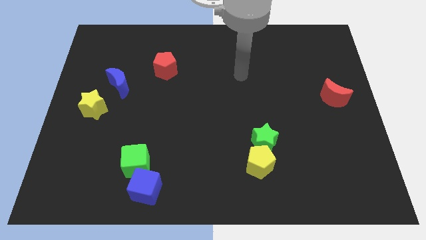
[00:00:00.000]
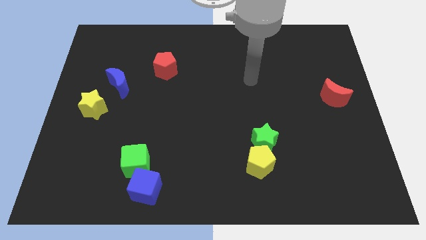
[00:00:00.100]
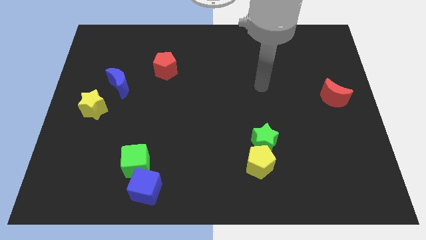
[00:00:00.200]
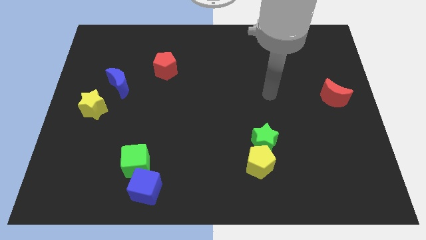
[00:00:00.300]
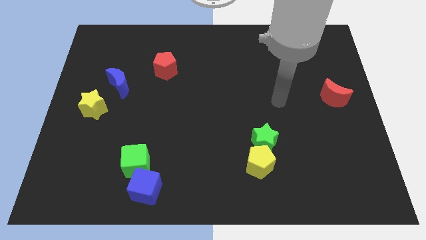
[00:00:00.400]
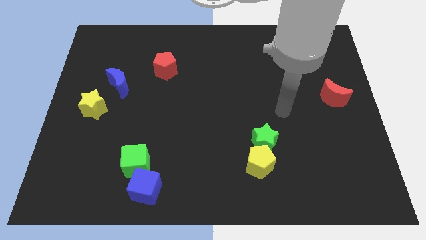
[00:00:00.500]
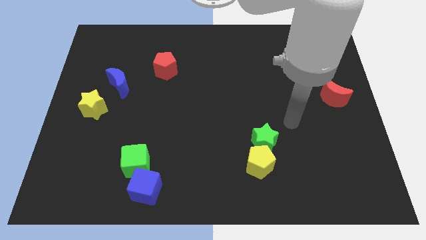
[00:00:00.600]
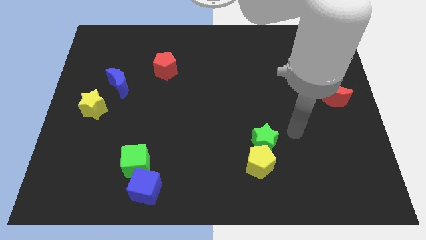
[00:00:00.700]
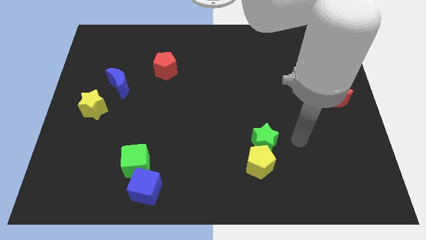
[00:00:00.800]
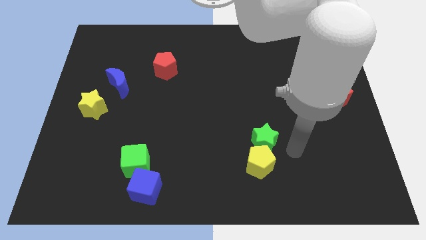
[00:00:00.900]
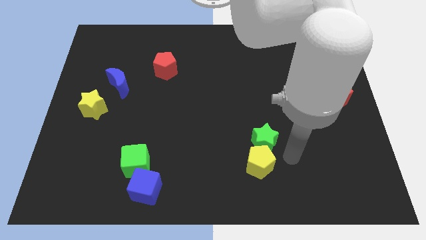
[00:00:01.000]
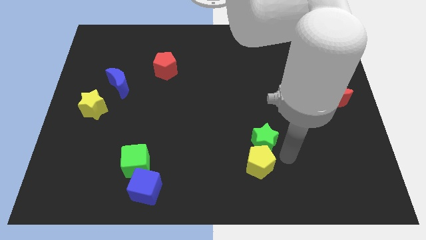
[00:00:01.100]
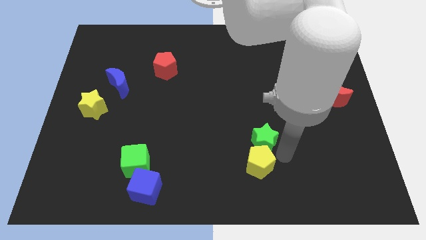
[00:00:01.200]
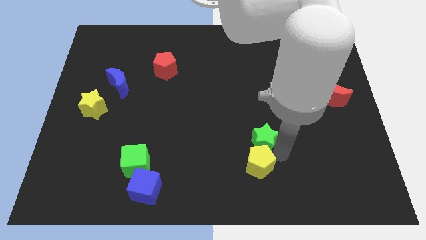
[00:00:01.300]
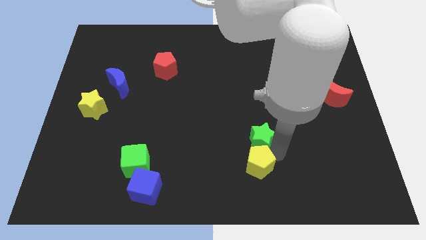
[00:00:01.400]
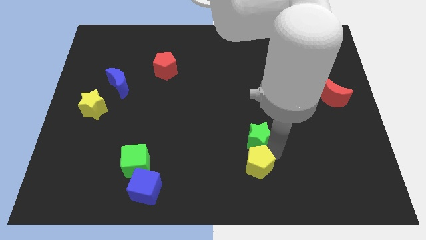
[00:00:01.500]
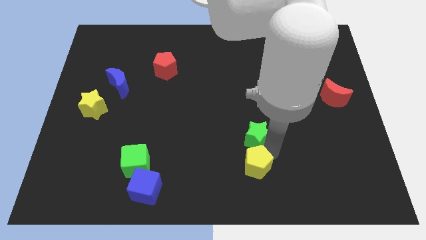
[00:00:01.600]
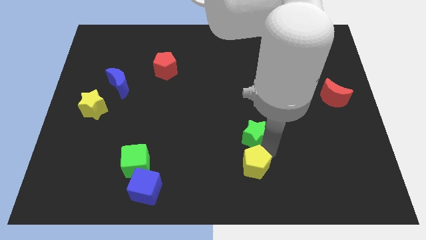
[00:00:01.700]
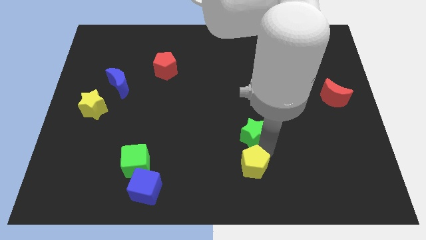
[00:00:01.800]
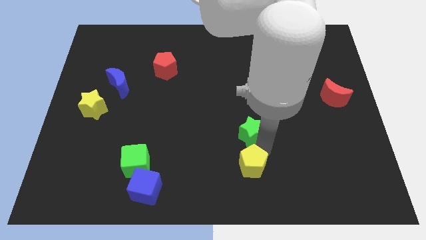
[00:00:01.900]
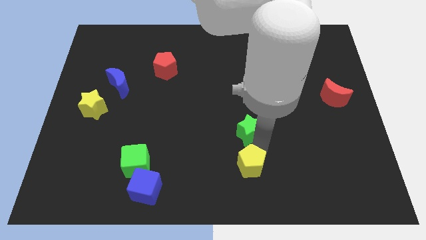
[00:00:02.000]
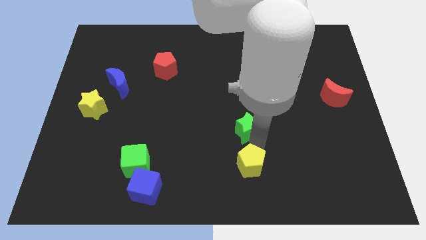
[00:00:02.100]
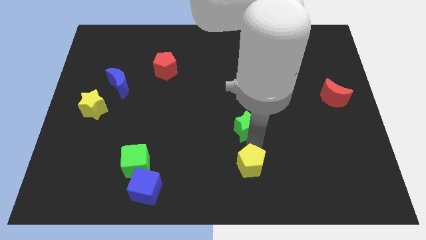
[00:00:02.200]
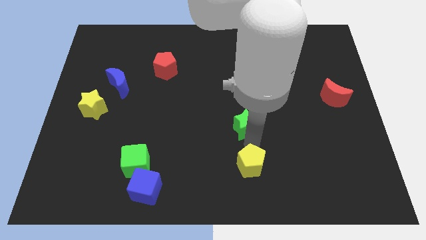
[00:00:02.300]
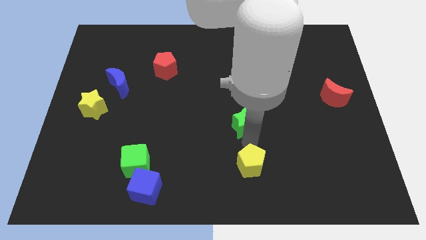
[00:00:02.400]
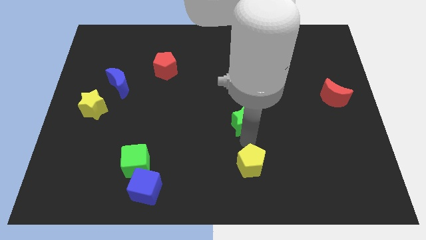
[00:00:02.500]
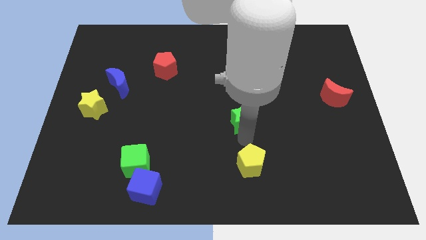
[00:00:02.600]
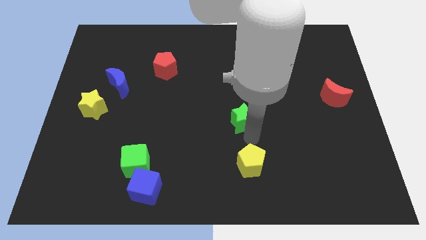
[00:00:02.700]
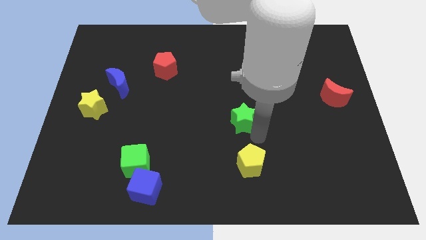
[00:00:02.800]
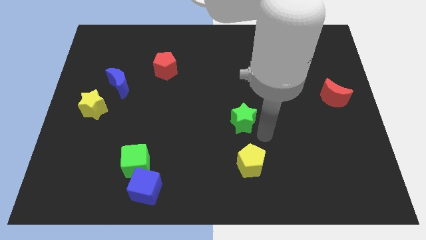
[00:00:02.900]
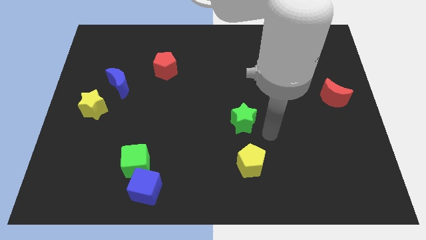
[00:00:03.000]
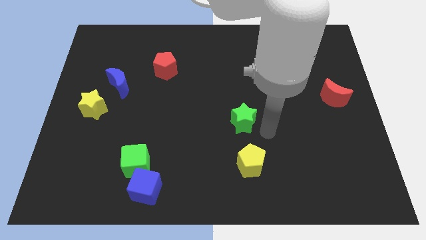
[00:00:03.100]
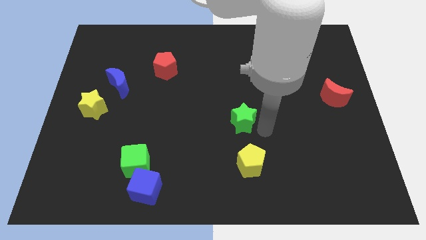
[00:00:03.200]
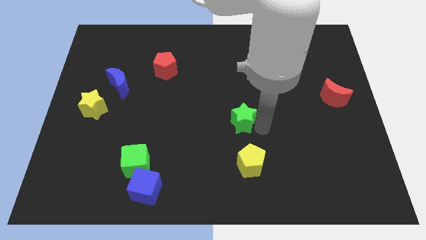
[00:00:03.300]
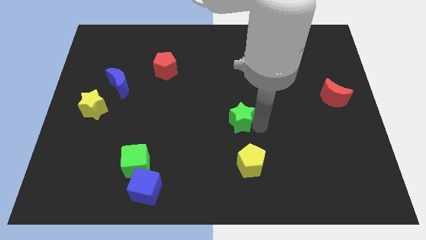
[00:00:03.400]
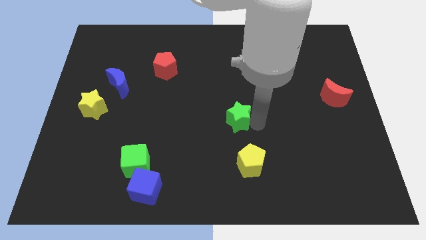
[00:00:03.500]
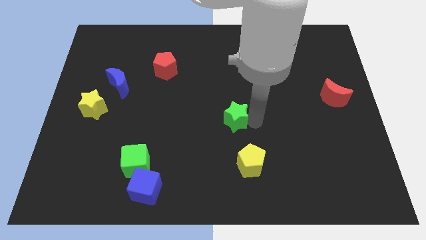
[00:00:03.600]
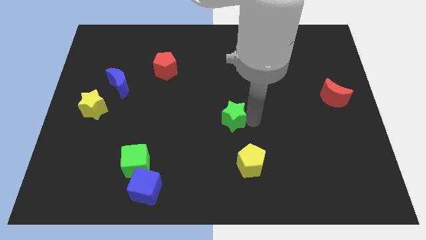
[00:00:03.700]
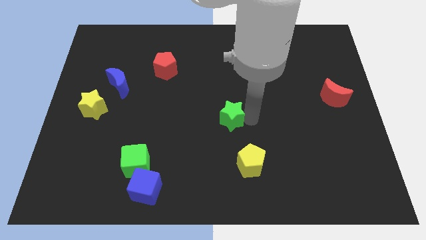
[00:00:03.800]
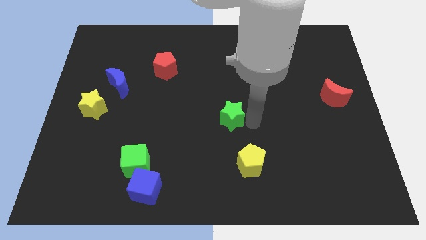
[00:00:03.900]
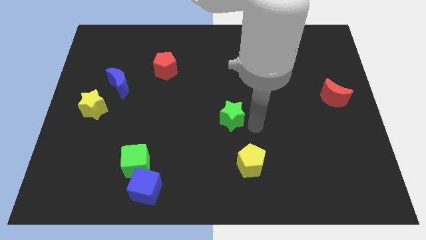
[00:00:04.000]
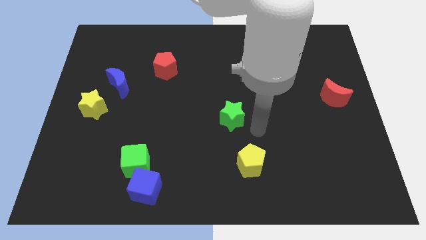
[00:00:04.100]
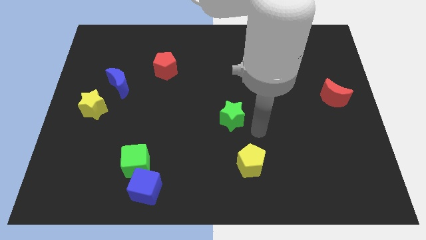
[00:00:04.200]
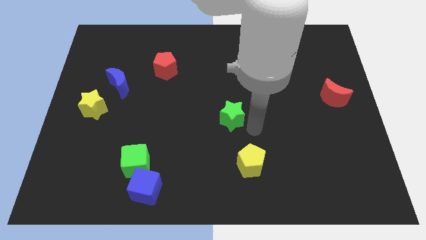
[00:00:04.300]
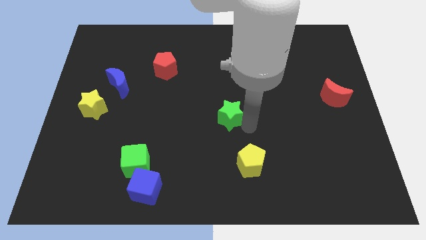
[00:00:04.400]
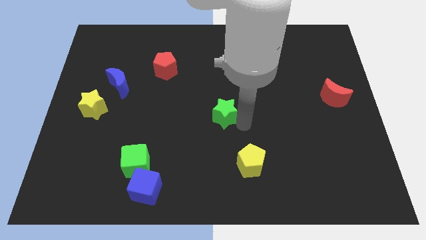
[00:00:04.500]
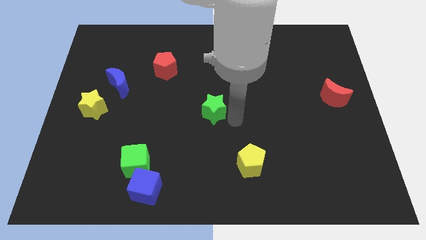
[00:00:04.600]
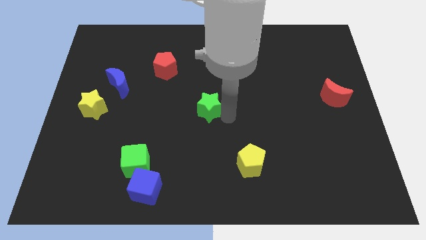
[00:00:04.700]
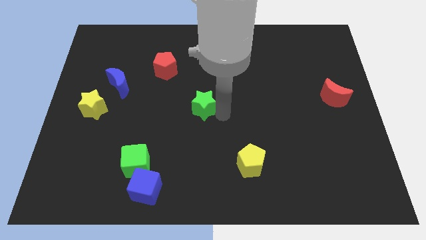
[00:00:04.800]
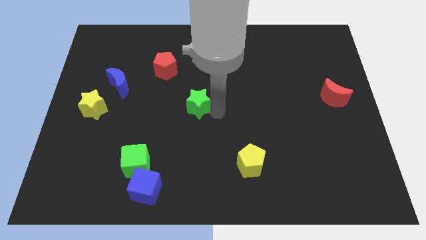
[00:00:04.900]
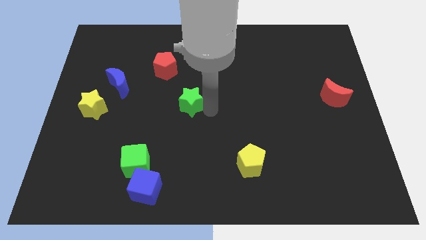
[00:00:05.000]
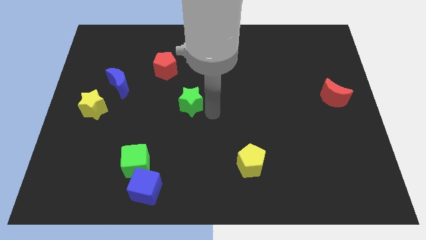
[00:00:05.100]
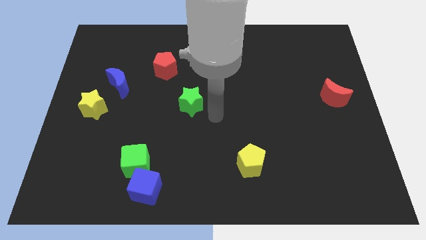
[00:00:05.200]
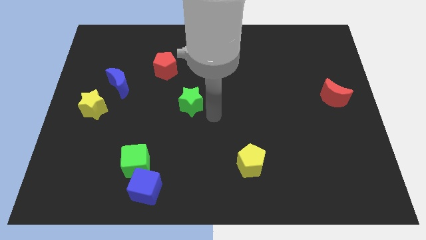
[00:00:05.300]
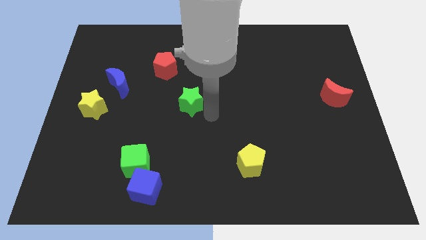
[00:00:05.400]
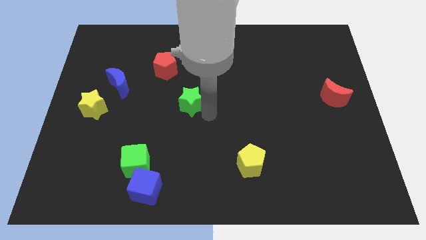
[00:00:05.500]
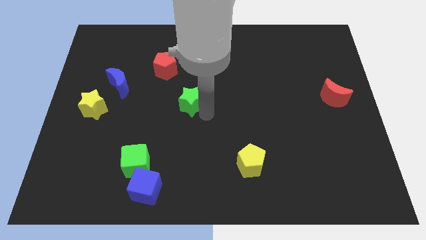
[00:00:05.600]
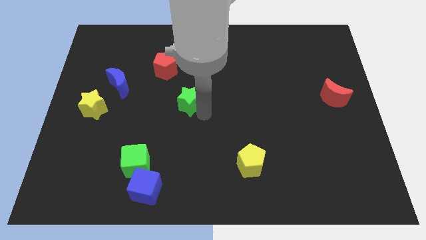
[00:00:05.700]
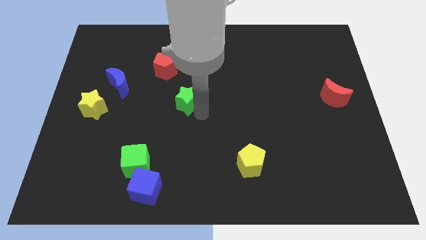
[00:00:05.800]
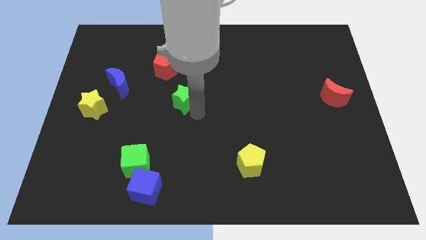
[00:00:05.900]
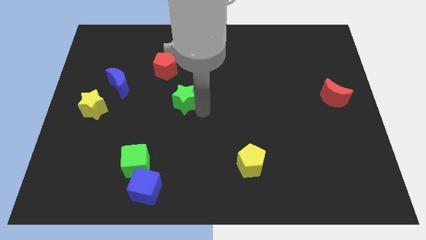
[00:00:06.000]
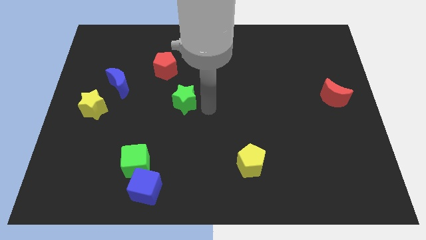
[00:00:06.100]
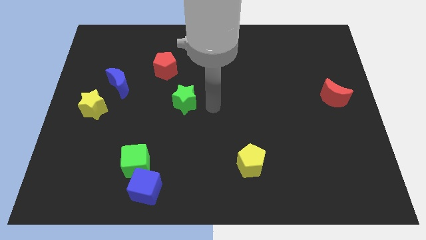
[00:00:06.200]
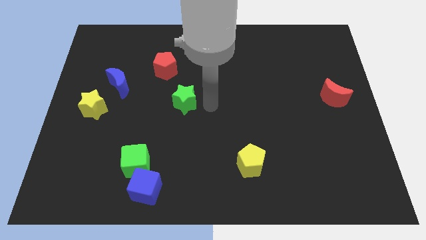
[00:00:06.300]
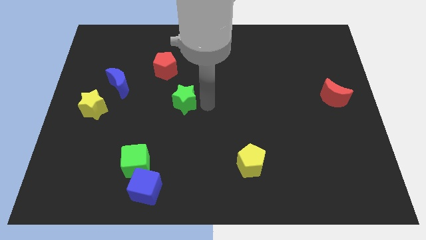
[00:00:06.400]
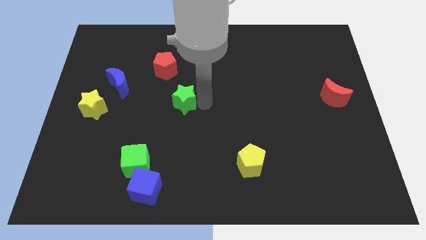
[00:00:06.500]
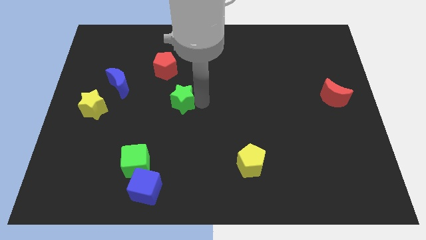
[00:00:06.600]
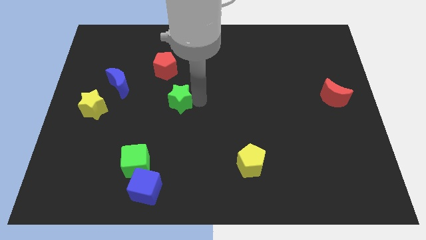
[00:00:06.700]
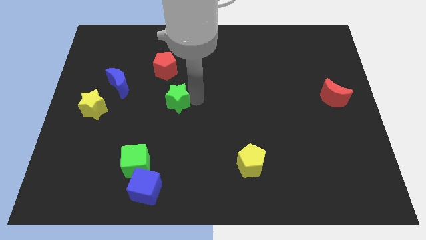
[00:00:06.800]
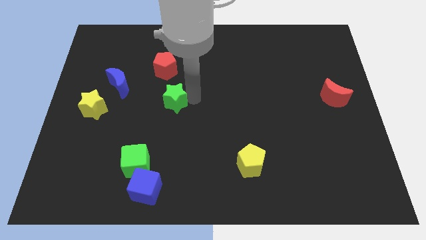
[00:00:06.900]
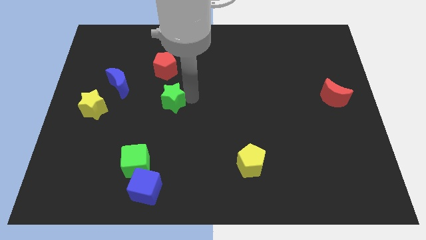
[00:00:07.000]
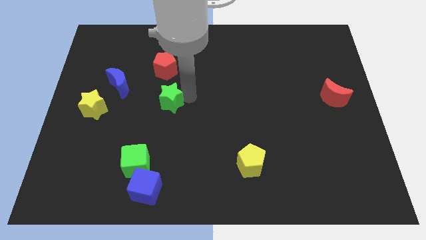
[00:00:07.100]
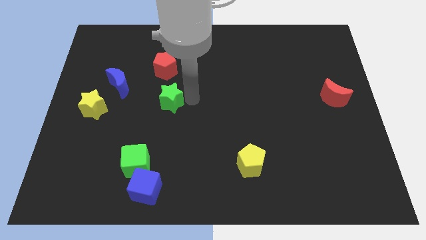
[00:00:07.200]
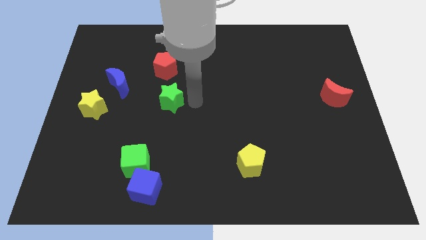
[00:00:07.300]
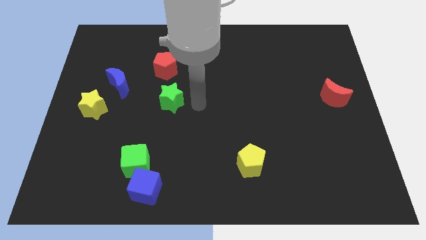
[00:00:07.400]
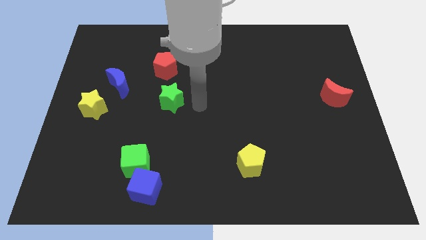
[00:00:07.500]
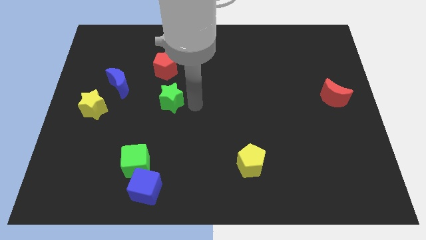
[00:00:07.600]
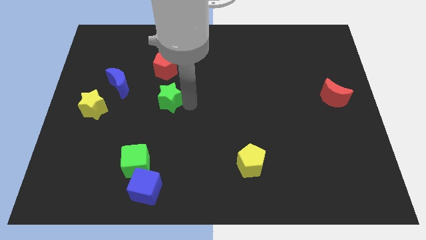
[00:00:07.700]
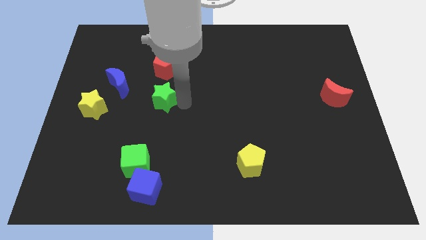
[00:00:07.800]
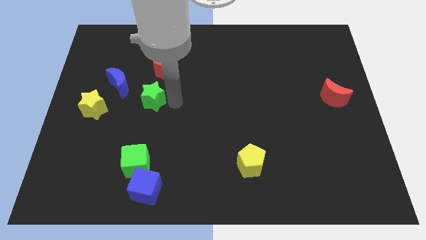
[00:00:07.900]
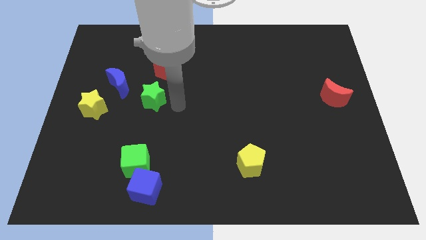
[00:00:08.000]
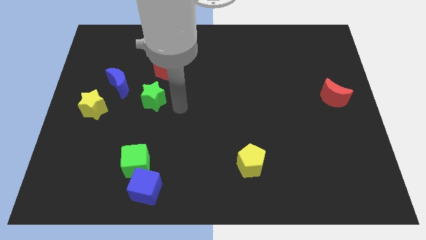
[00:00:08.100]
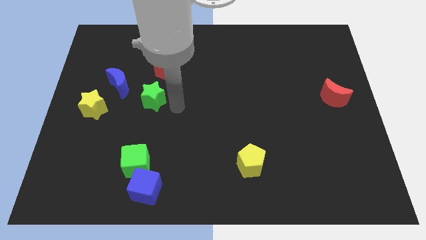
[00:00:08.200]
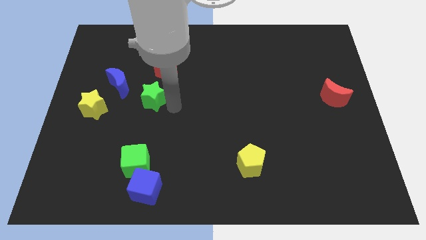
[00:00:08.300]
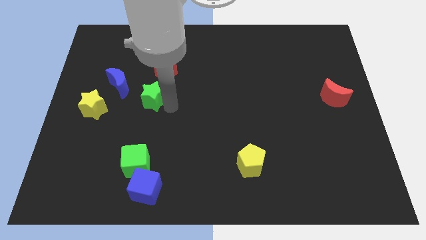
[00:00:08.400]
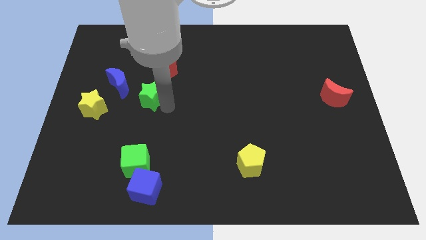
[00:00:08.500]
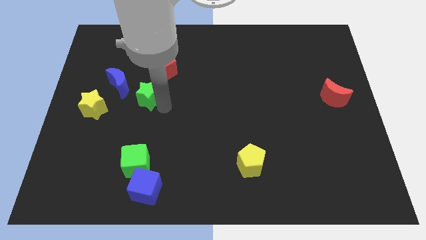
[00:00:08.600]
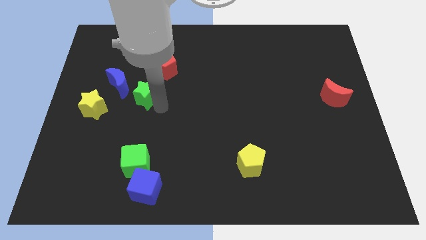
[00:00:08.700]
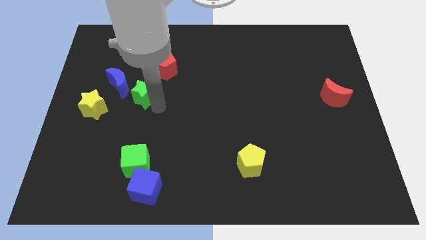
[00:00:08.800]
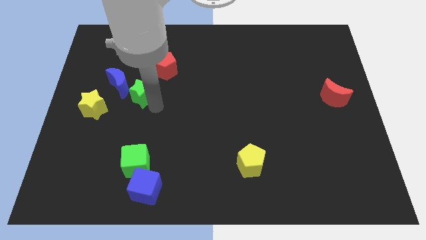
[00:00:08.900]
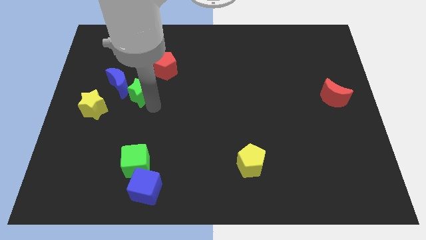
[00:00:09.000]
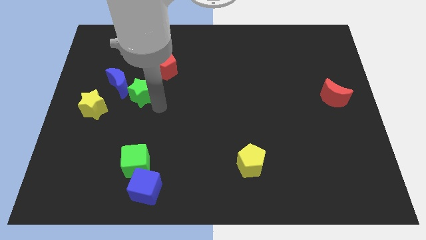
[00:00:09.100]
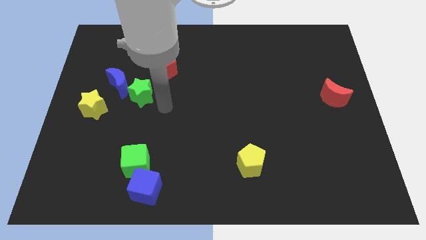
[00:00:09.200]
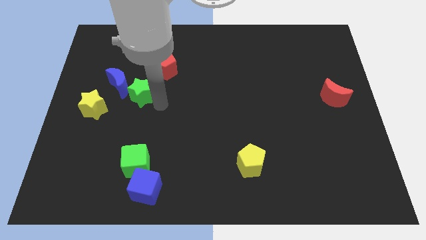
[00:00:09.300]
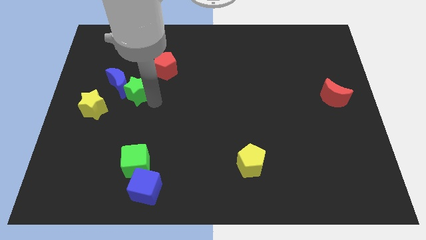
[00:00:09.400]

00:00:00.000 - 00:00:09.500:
push the green star close to the blue moon
